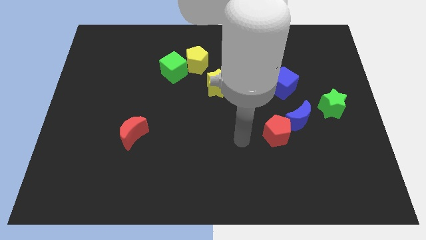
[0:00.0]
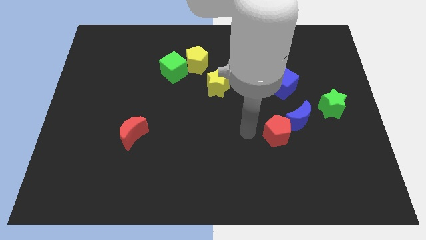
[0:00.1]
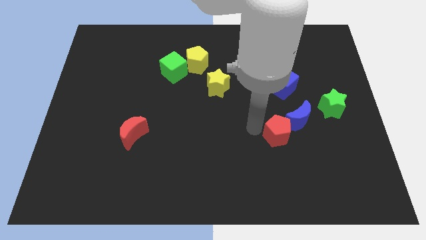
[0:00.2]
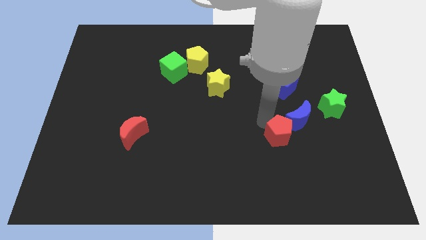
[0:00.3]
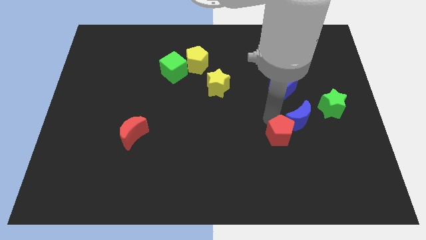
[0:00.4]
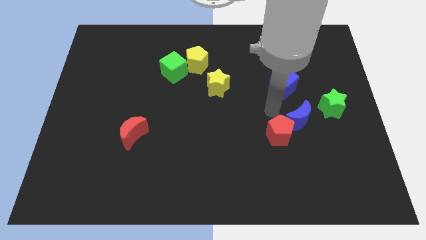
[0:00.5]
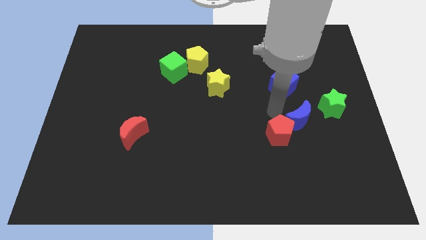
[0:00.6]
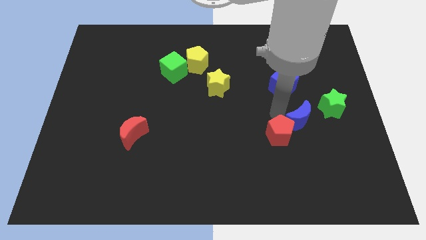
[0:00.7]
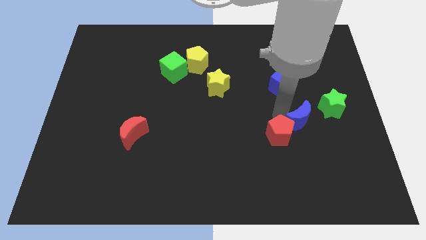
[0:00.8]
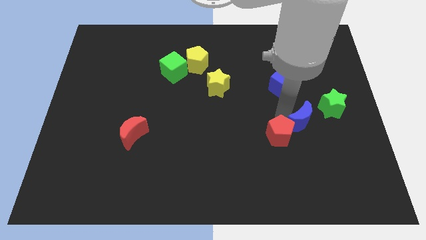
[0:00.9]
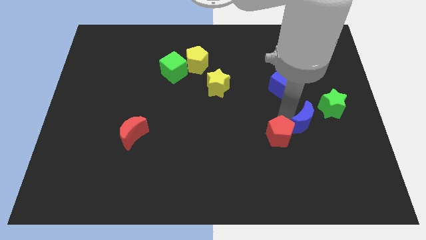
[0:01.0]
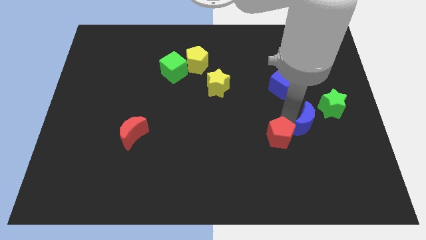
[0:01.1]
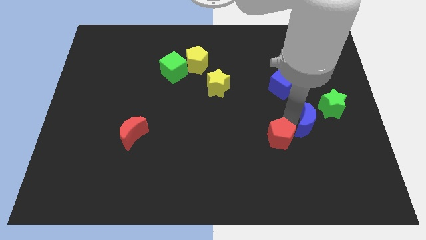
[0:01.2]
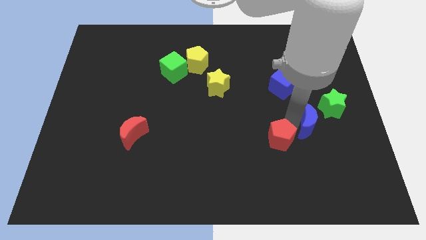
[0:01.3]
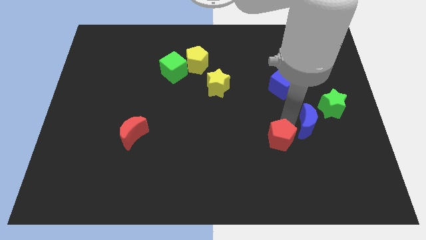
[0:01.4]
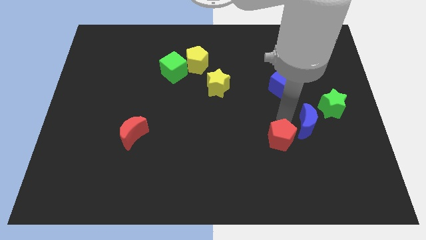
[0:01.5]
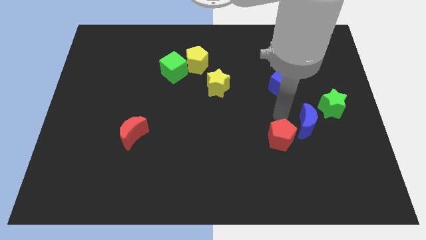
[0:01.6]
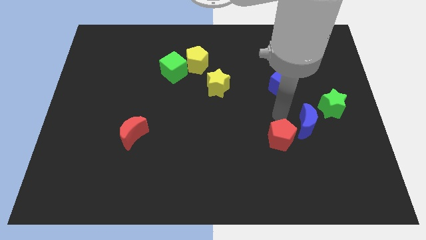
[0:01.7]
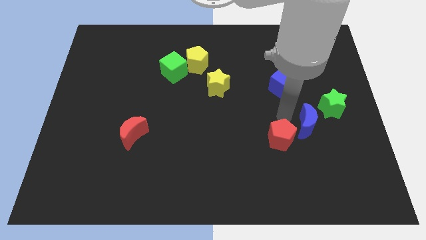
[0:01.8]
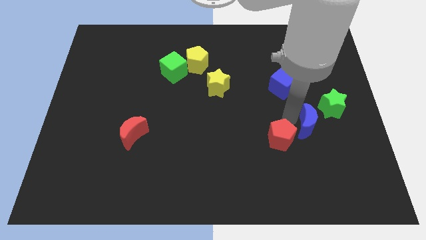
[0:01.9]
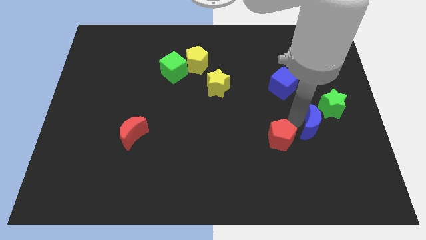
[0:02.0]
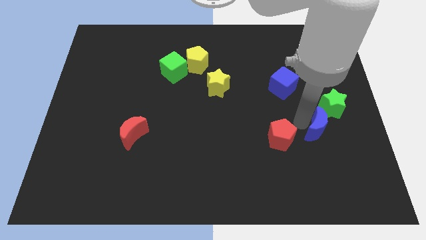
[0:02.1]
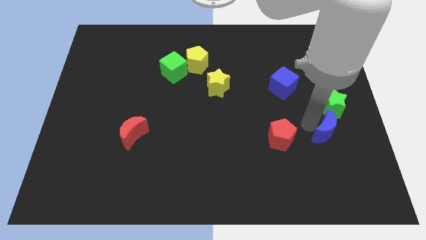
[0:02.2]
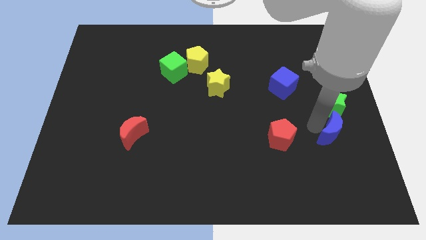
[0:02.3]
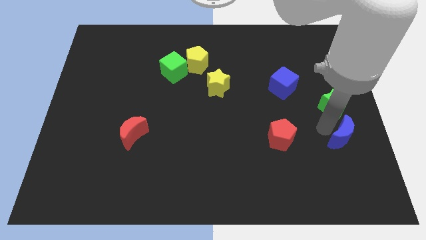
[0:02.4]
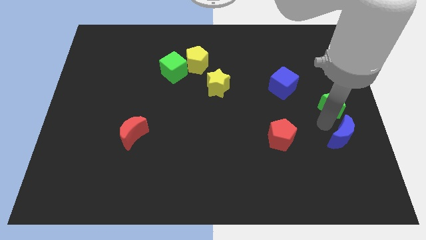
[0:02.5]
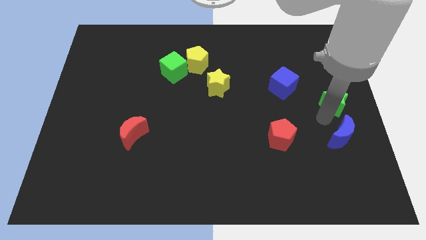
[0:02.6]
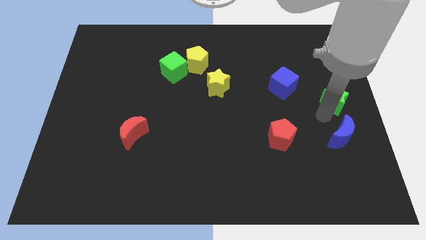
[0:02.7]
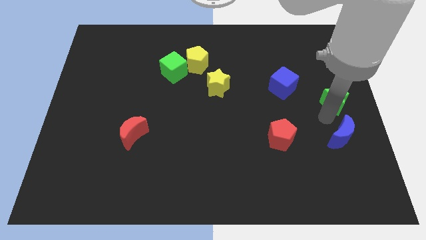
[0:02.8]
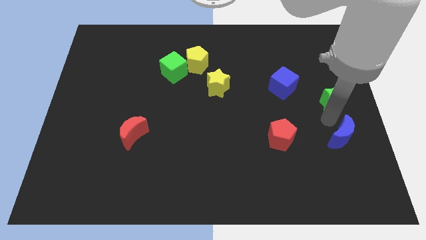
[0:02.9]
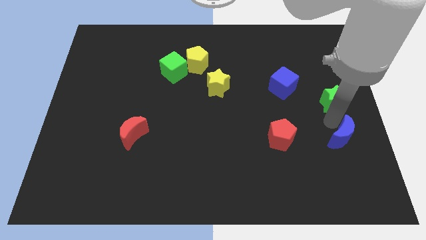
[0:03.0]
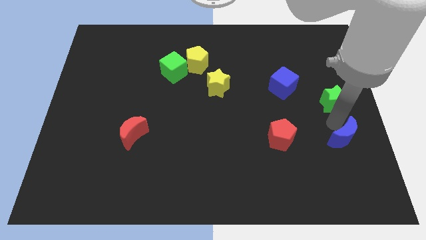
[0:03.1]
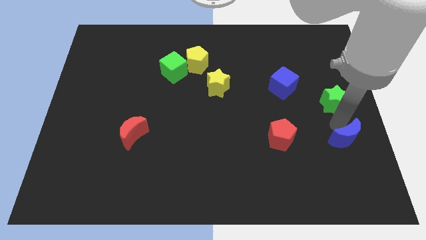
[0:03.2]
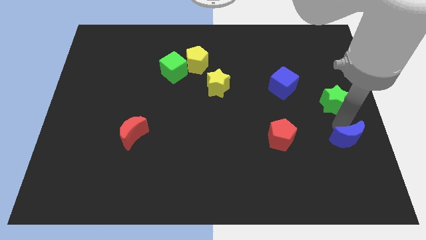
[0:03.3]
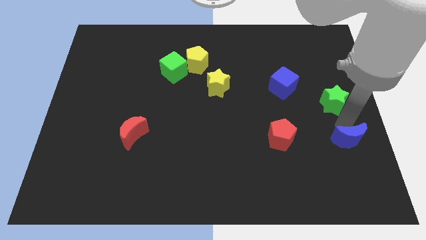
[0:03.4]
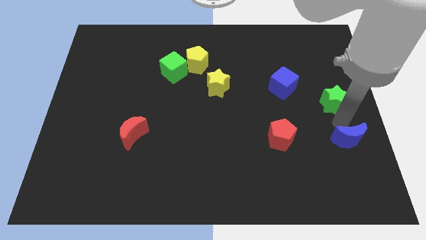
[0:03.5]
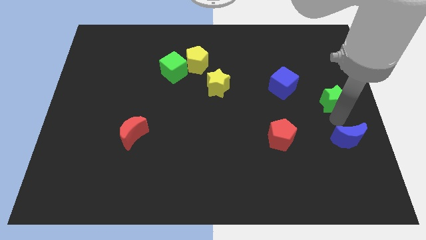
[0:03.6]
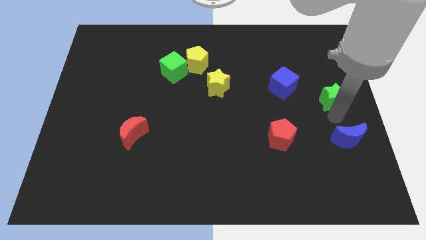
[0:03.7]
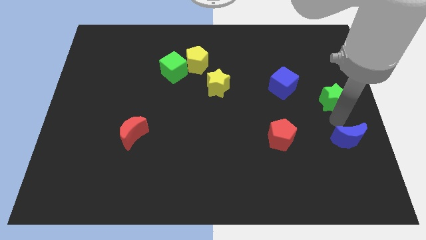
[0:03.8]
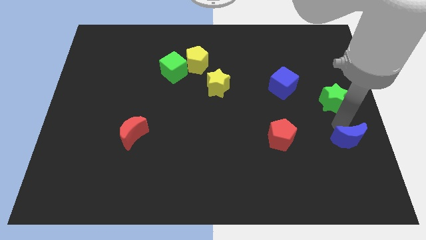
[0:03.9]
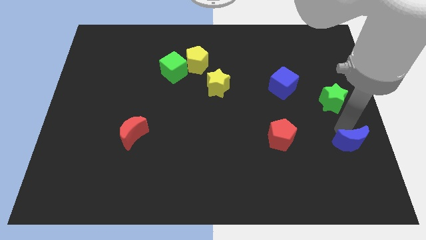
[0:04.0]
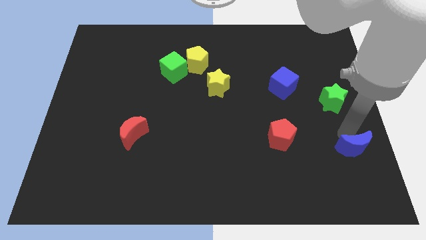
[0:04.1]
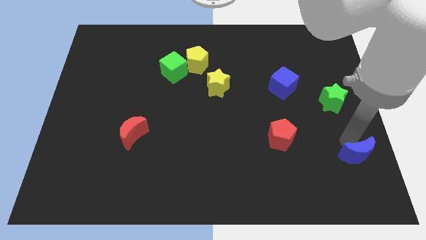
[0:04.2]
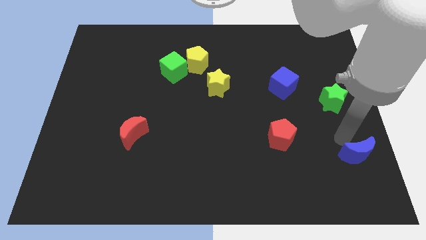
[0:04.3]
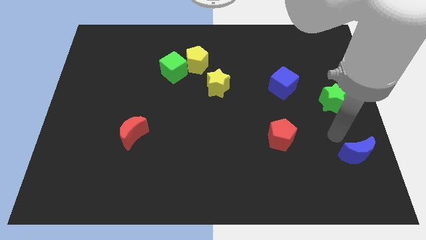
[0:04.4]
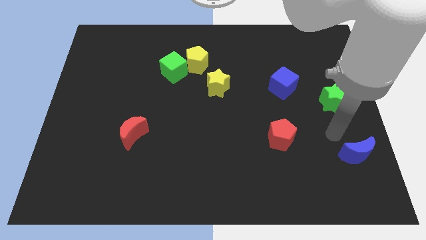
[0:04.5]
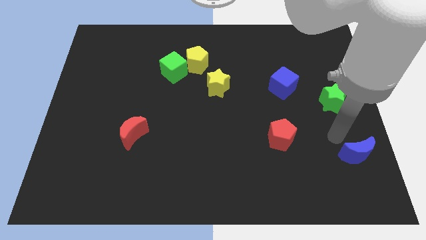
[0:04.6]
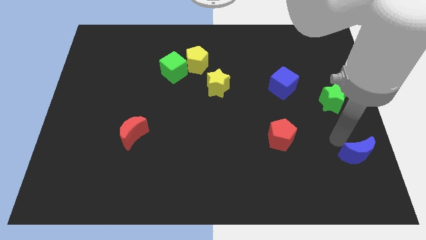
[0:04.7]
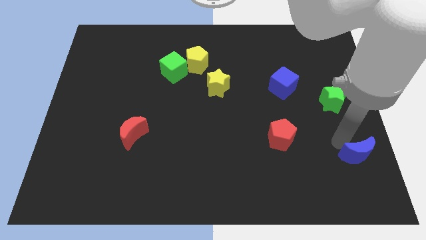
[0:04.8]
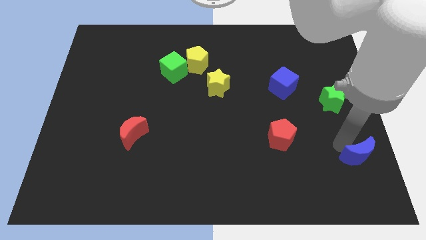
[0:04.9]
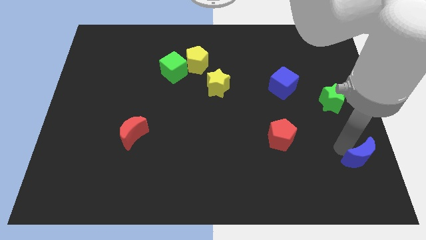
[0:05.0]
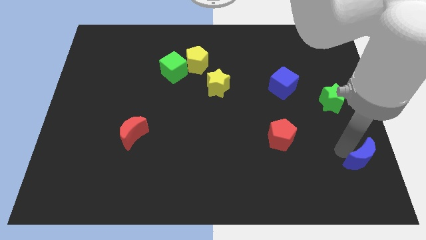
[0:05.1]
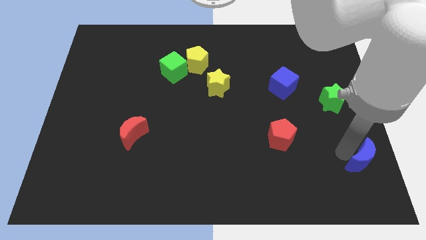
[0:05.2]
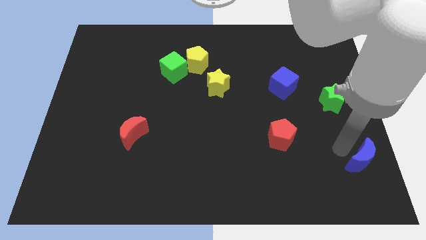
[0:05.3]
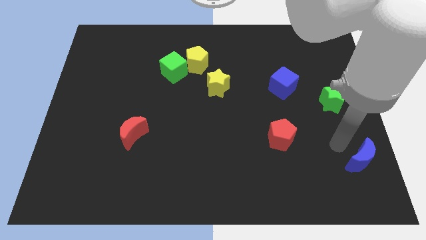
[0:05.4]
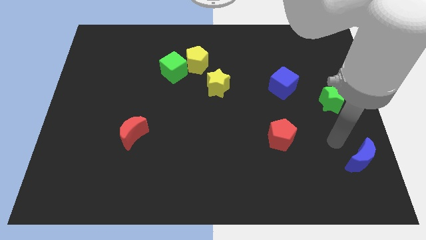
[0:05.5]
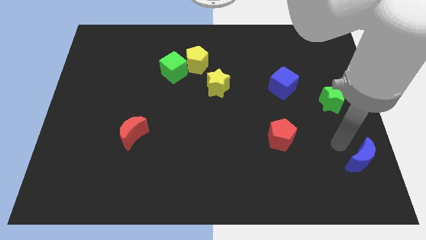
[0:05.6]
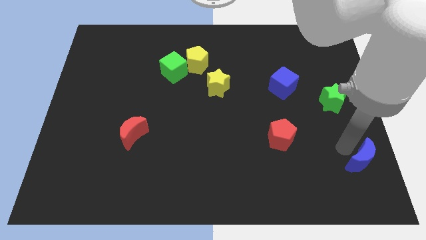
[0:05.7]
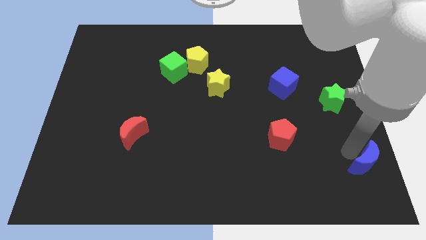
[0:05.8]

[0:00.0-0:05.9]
slide the blue moon to the bottom right of the board
